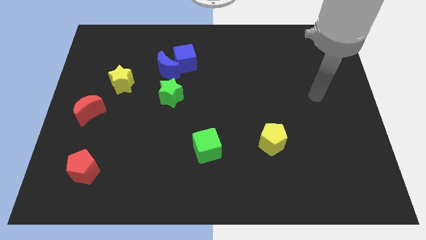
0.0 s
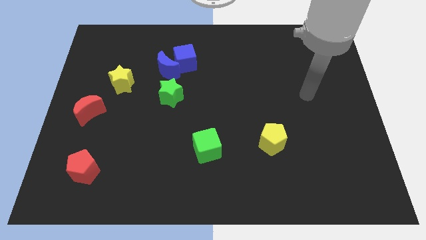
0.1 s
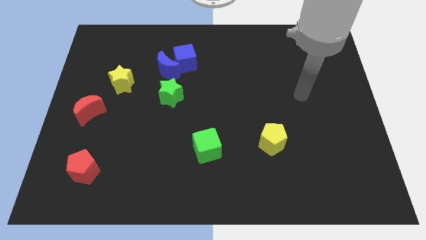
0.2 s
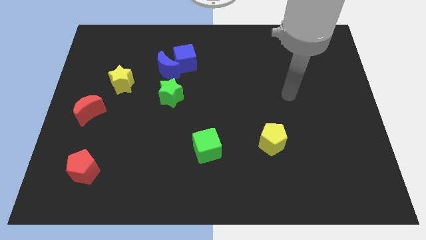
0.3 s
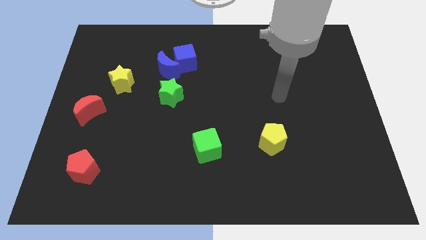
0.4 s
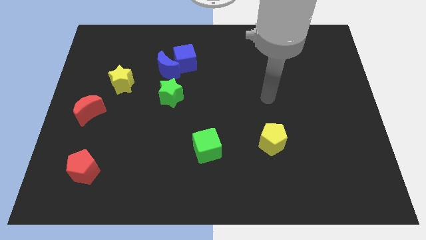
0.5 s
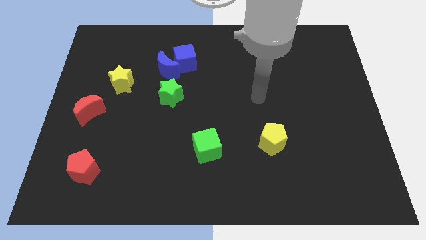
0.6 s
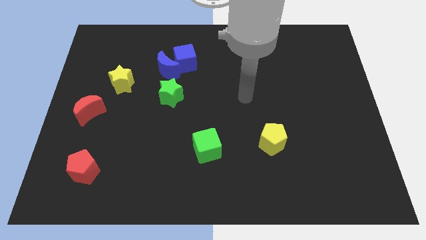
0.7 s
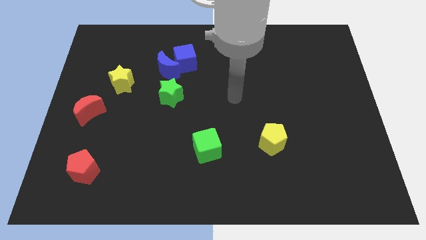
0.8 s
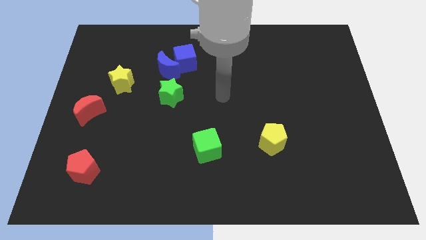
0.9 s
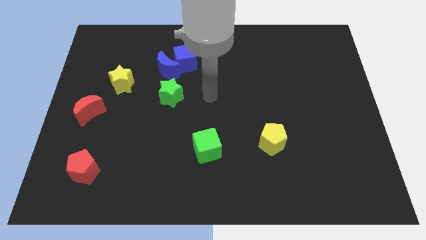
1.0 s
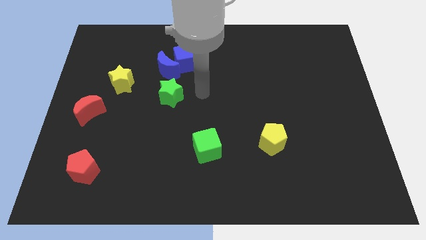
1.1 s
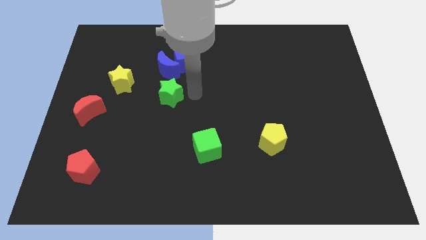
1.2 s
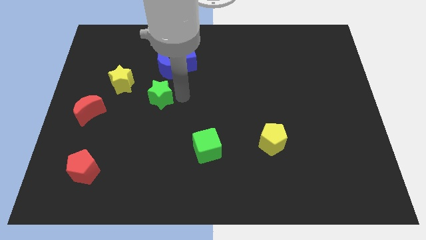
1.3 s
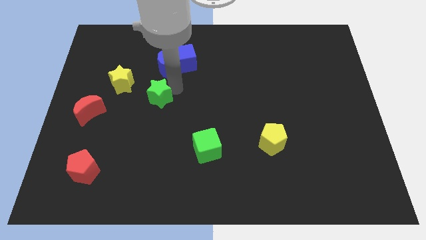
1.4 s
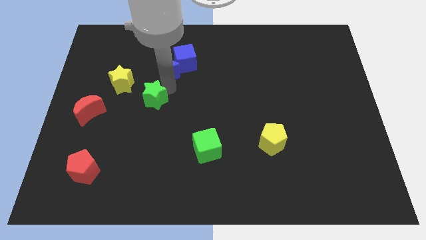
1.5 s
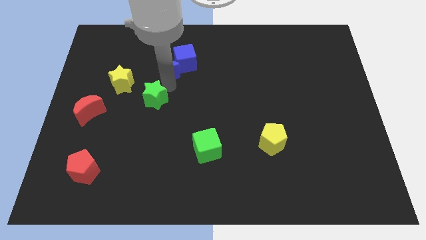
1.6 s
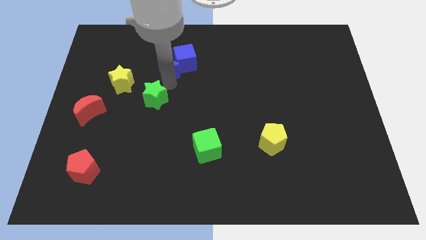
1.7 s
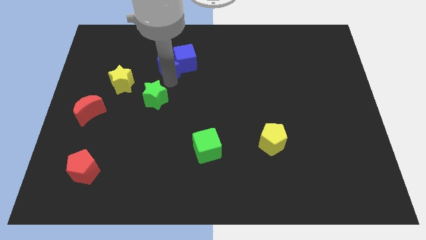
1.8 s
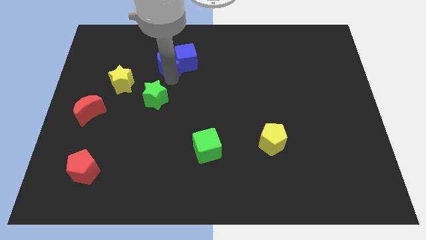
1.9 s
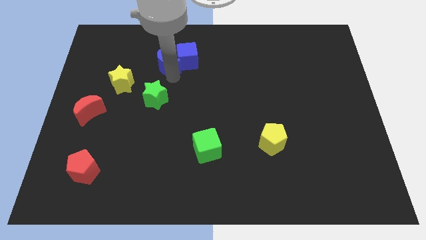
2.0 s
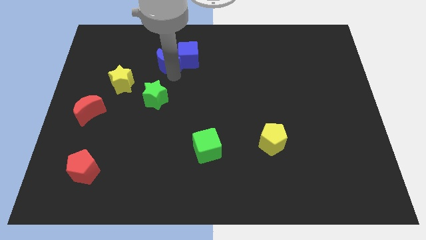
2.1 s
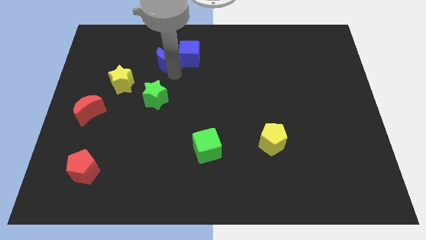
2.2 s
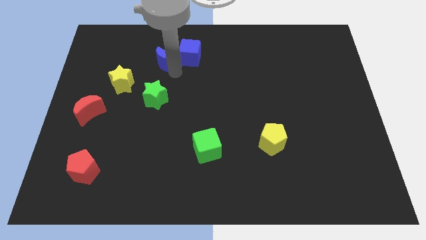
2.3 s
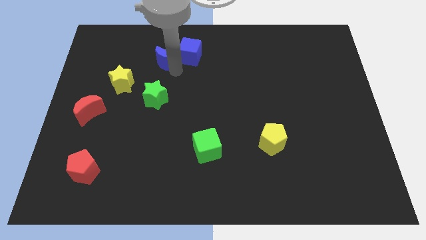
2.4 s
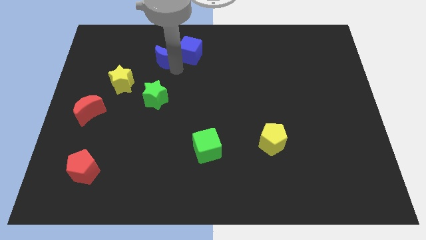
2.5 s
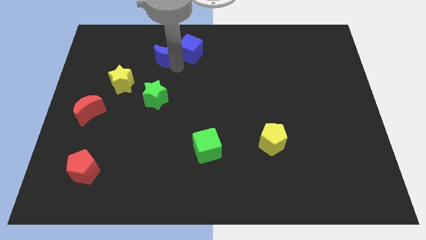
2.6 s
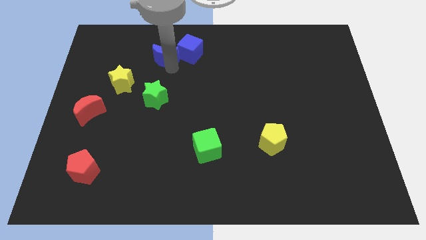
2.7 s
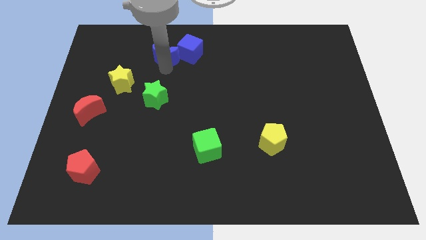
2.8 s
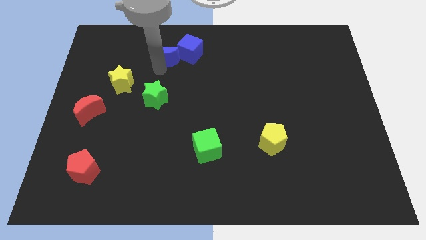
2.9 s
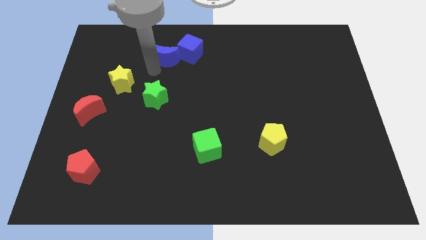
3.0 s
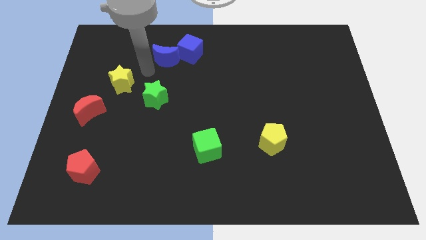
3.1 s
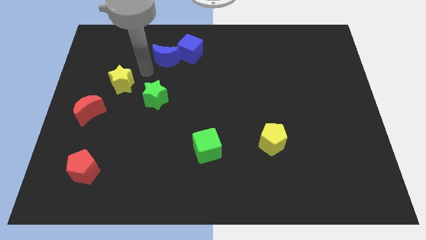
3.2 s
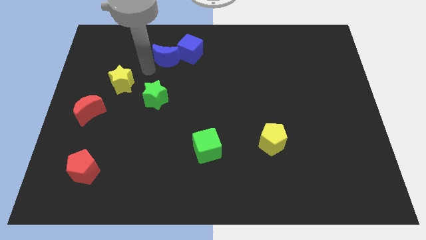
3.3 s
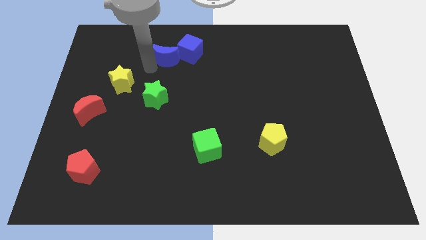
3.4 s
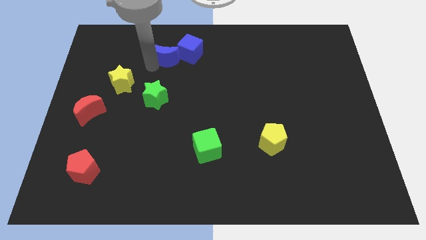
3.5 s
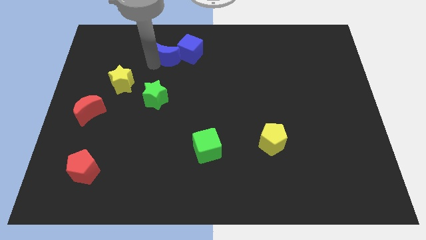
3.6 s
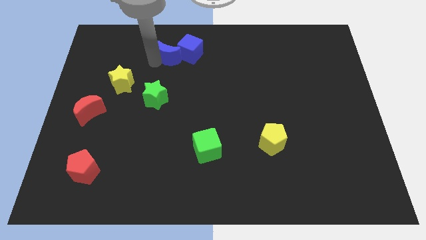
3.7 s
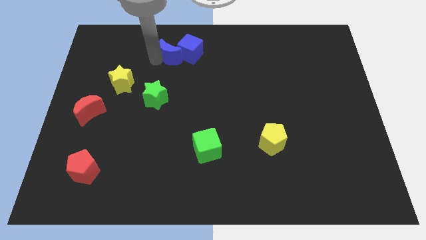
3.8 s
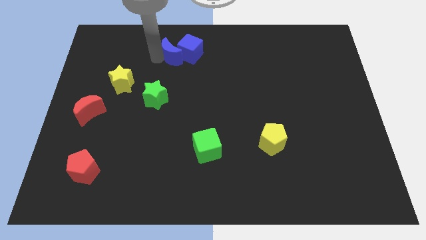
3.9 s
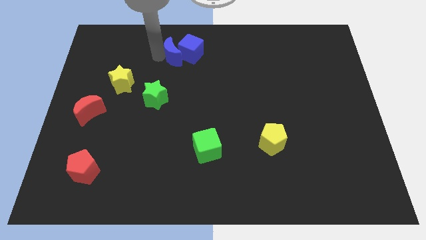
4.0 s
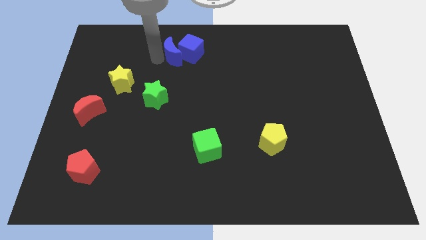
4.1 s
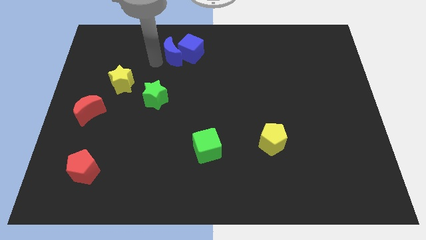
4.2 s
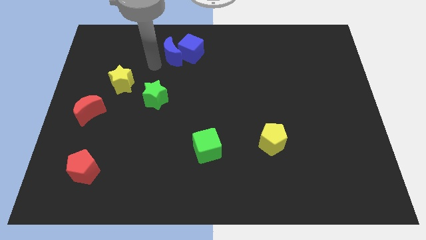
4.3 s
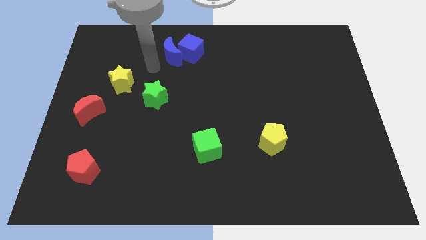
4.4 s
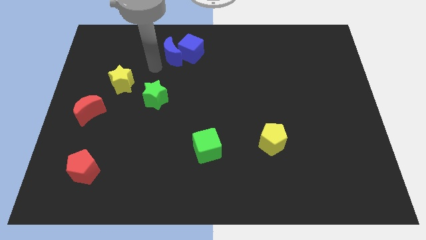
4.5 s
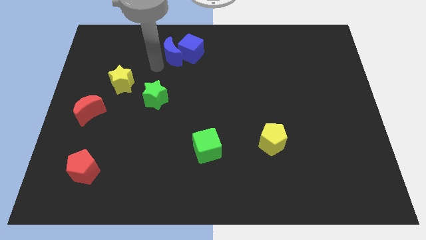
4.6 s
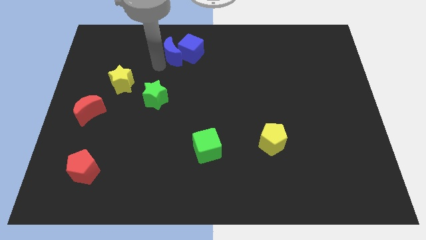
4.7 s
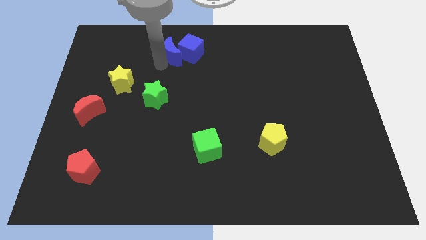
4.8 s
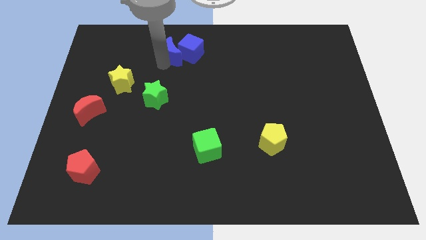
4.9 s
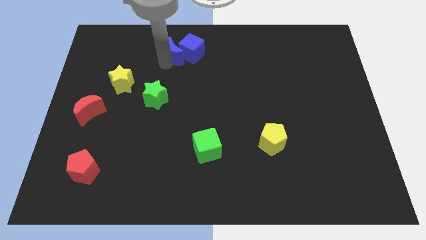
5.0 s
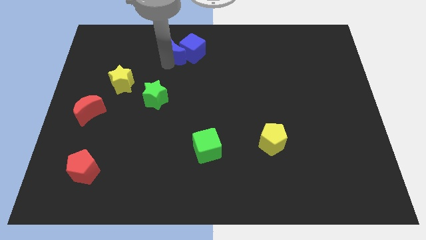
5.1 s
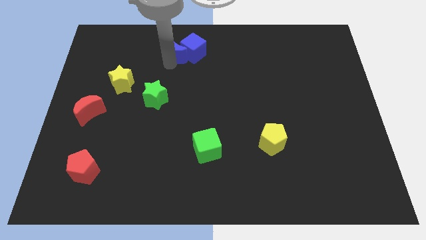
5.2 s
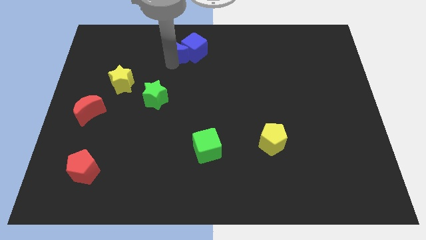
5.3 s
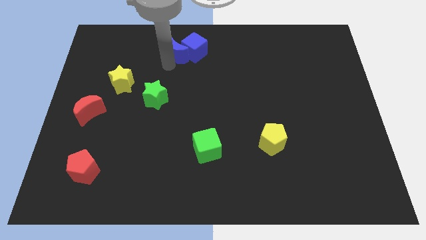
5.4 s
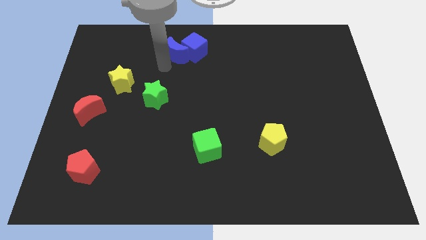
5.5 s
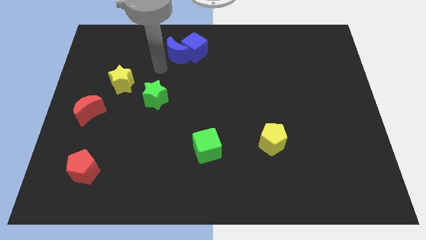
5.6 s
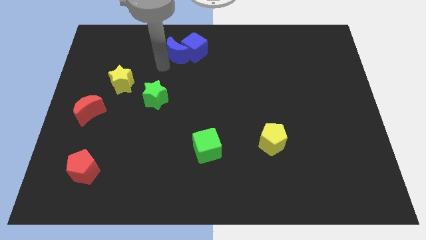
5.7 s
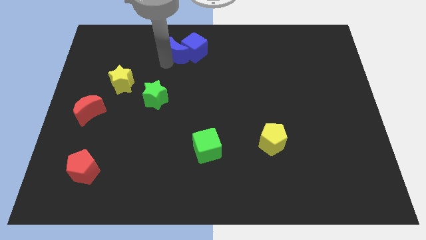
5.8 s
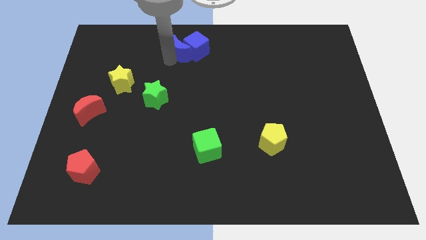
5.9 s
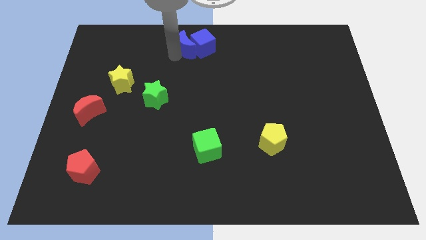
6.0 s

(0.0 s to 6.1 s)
push the blue moon to the top
